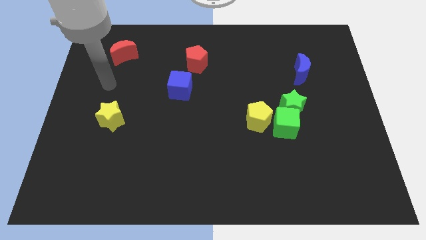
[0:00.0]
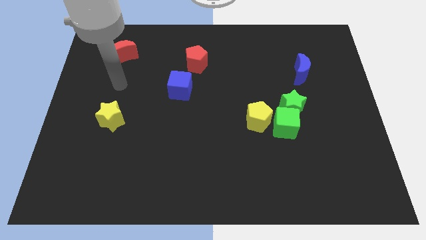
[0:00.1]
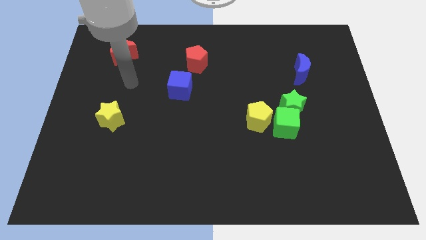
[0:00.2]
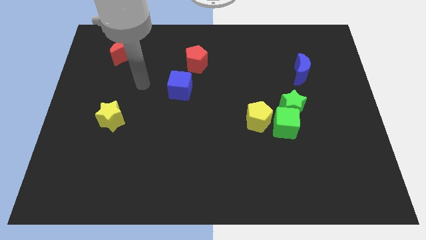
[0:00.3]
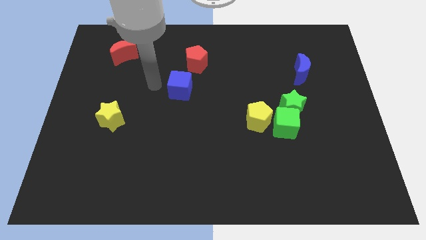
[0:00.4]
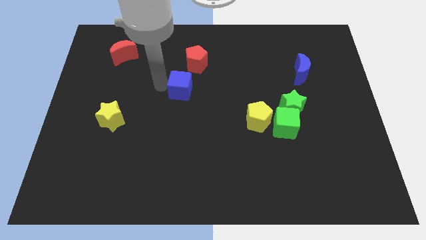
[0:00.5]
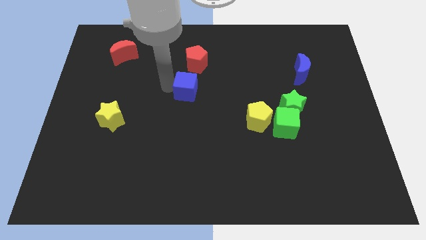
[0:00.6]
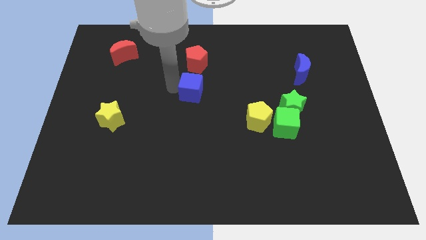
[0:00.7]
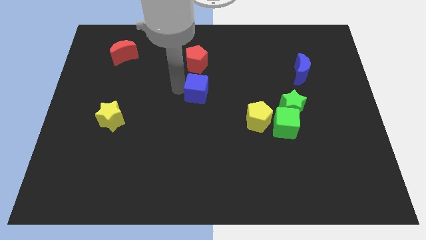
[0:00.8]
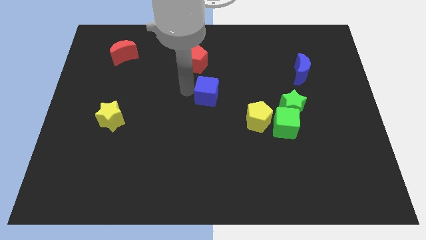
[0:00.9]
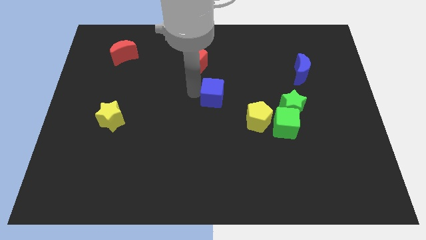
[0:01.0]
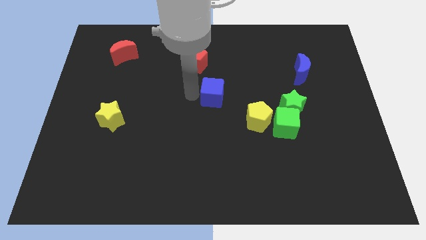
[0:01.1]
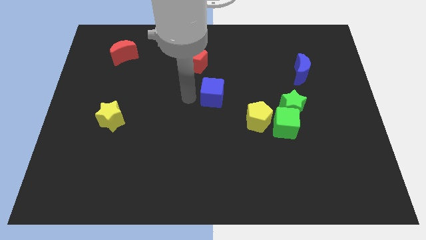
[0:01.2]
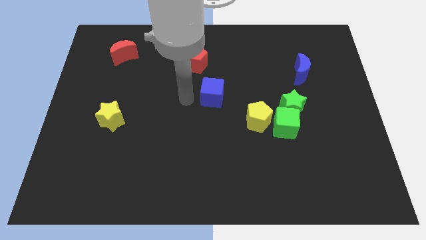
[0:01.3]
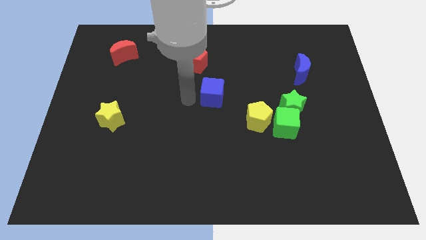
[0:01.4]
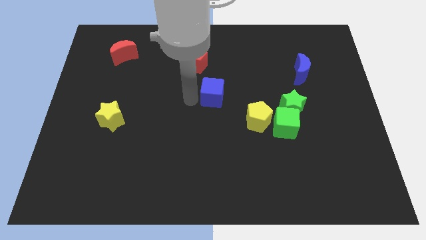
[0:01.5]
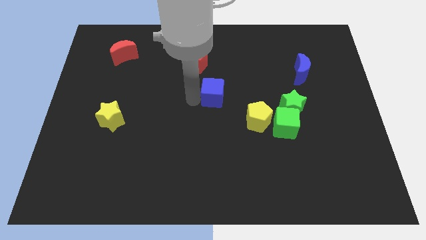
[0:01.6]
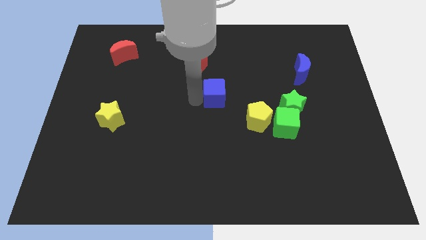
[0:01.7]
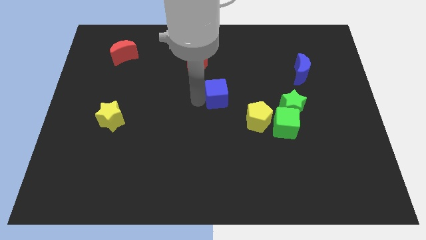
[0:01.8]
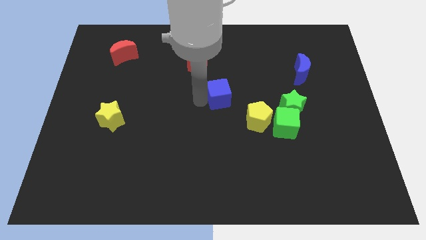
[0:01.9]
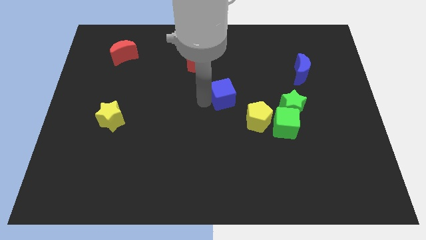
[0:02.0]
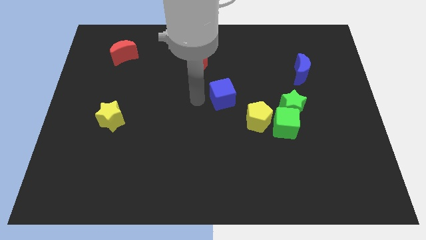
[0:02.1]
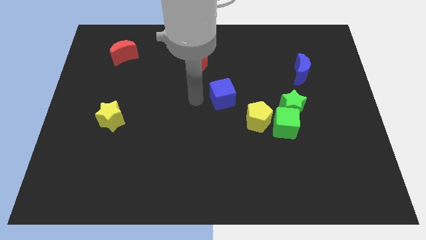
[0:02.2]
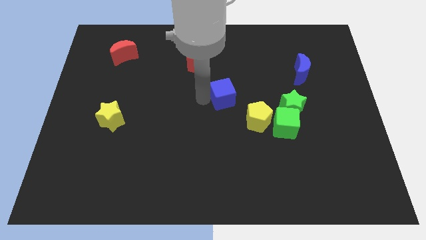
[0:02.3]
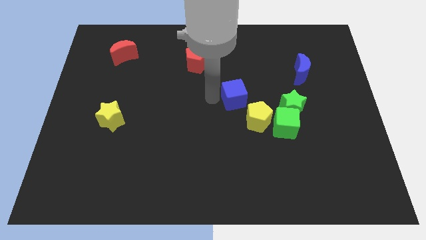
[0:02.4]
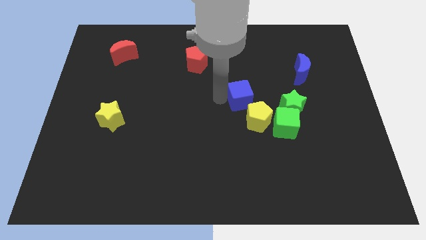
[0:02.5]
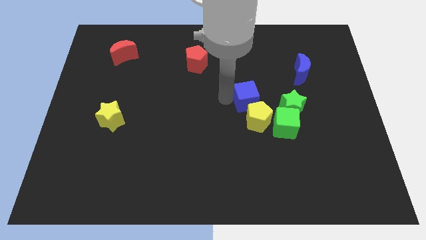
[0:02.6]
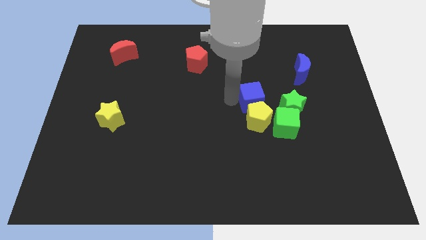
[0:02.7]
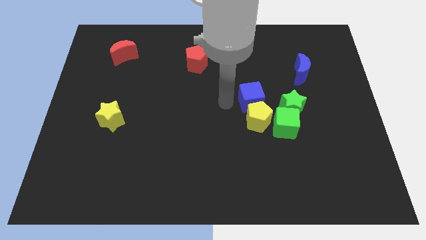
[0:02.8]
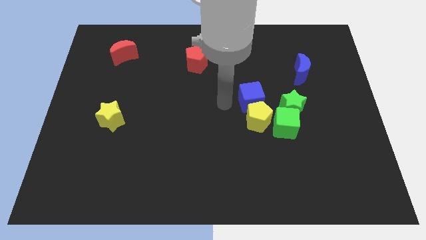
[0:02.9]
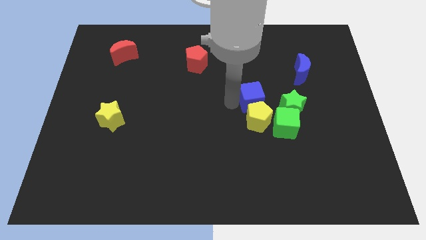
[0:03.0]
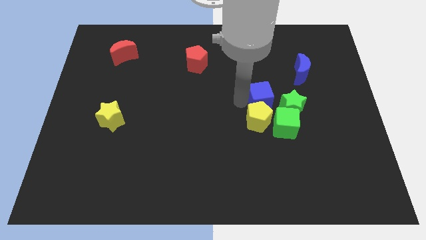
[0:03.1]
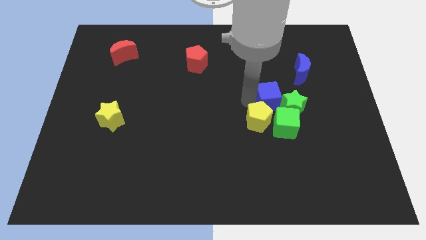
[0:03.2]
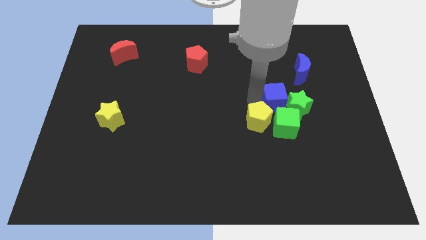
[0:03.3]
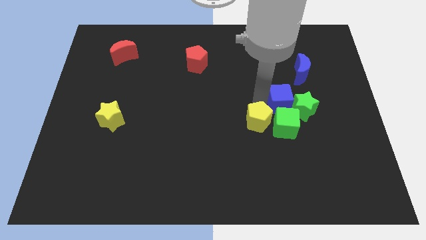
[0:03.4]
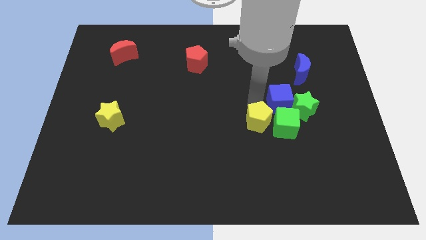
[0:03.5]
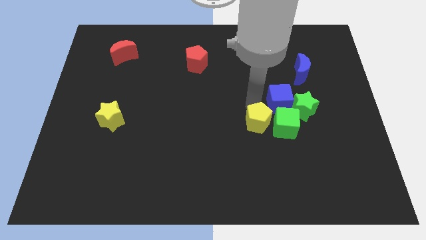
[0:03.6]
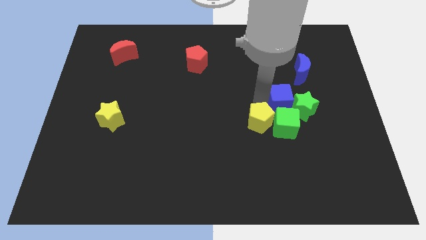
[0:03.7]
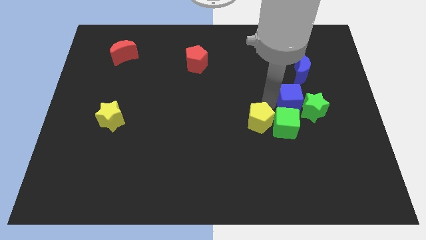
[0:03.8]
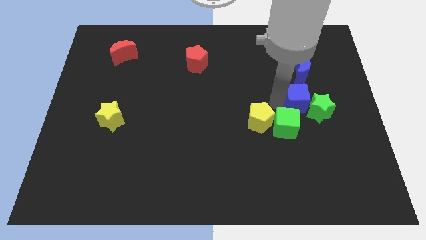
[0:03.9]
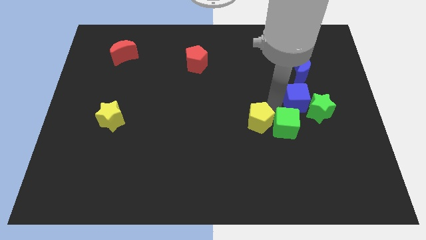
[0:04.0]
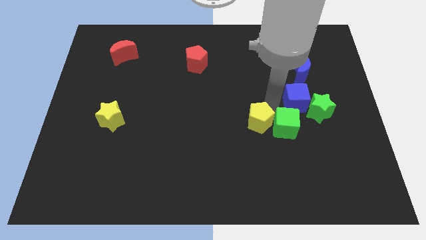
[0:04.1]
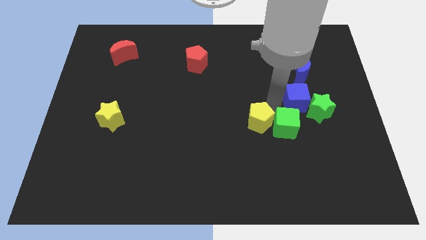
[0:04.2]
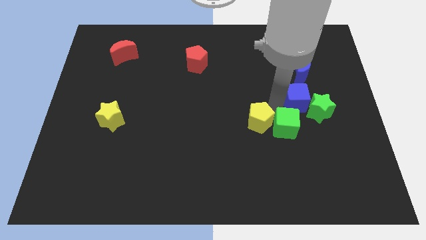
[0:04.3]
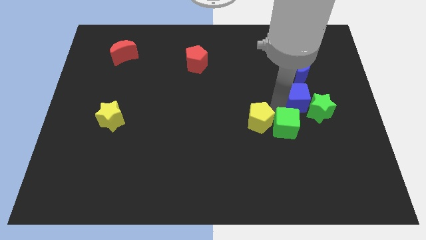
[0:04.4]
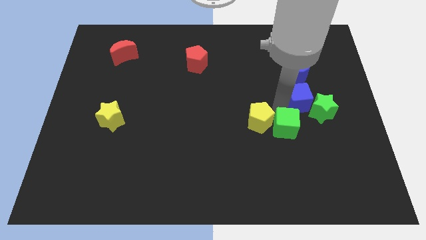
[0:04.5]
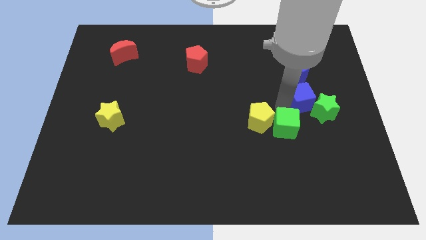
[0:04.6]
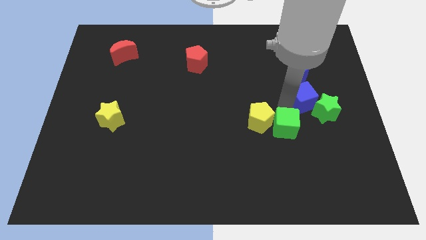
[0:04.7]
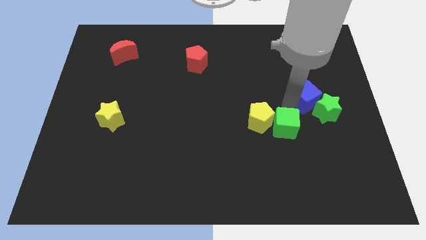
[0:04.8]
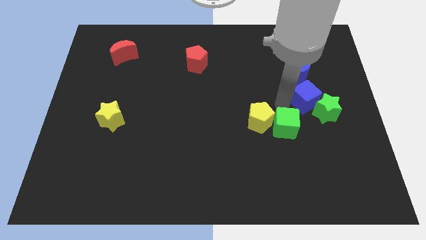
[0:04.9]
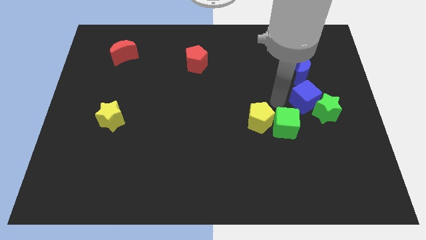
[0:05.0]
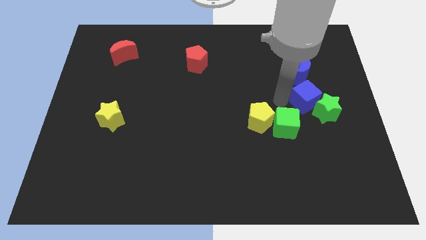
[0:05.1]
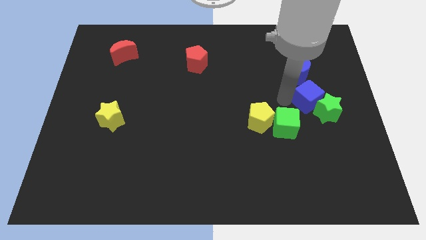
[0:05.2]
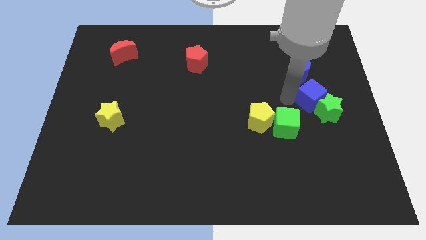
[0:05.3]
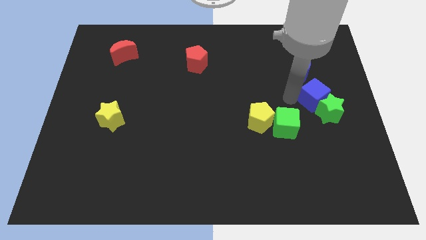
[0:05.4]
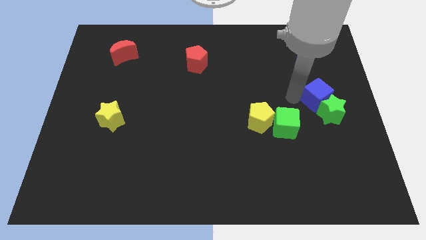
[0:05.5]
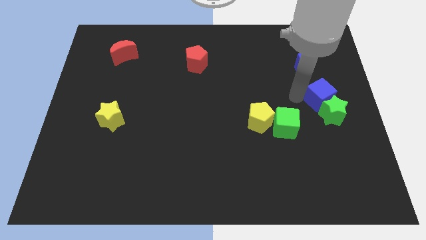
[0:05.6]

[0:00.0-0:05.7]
put the blue cube to the right side of the board

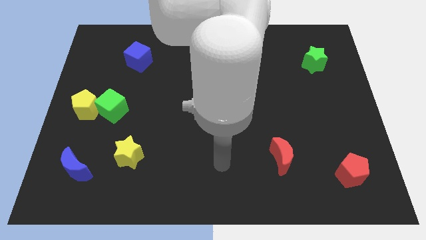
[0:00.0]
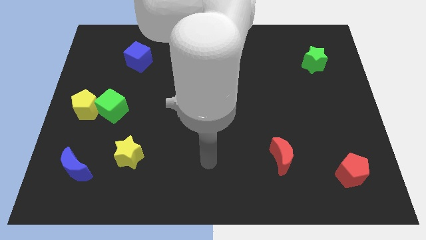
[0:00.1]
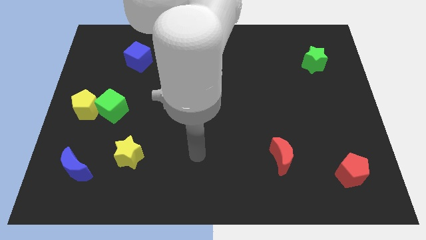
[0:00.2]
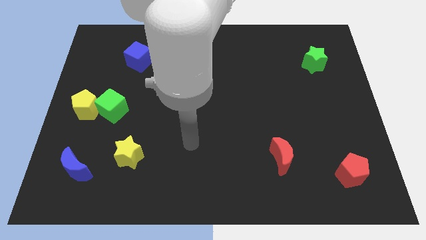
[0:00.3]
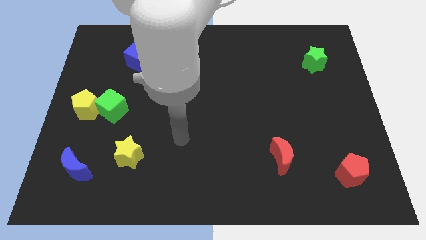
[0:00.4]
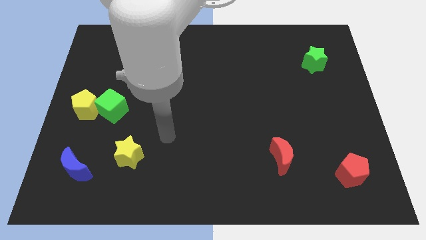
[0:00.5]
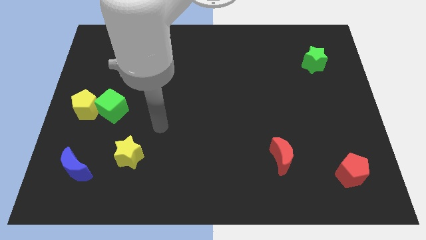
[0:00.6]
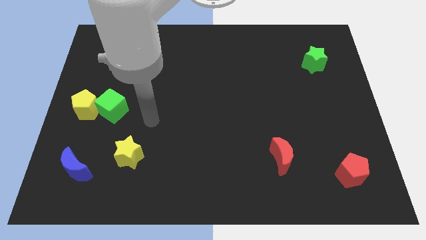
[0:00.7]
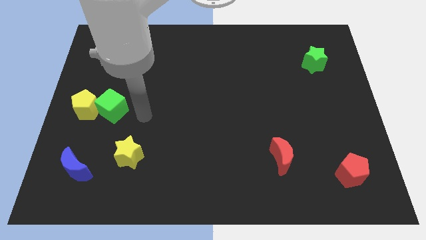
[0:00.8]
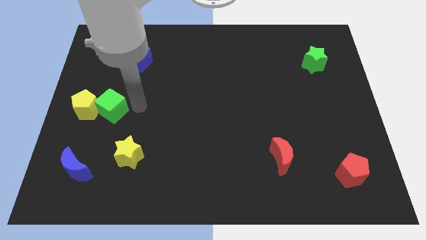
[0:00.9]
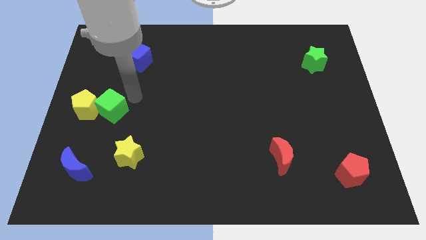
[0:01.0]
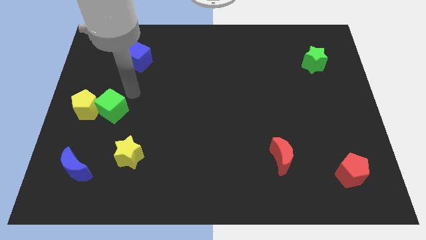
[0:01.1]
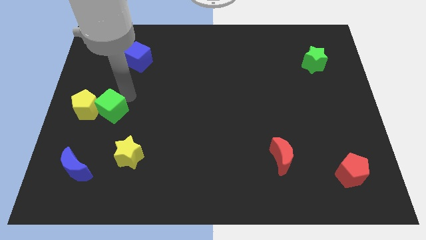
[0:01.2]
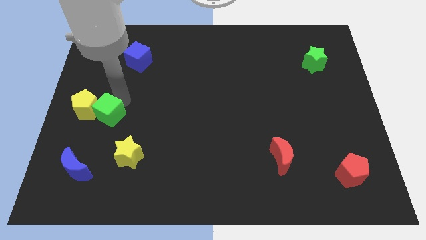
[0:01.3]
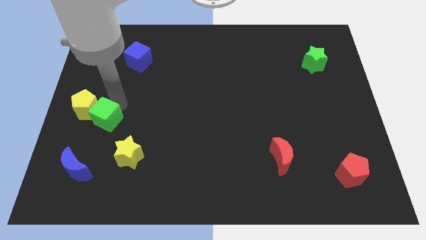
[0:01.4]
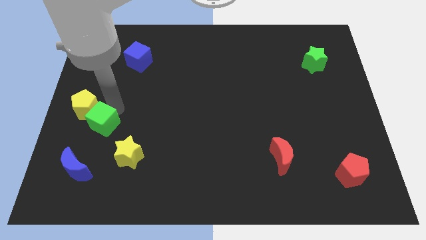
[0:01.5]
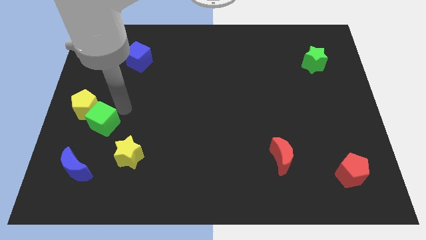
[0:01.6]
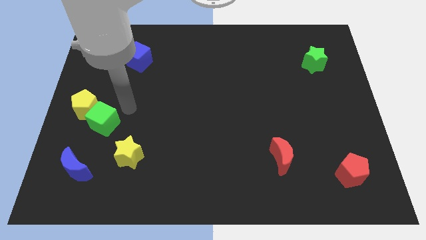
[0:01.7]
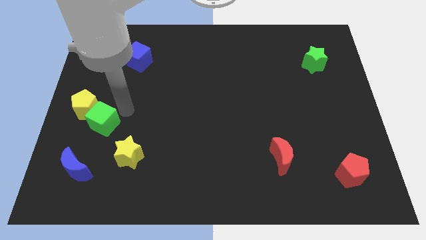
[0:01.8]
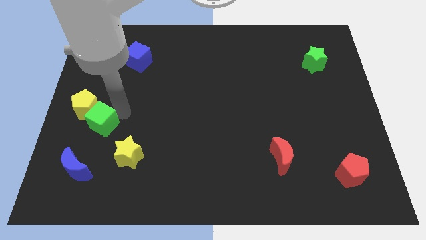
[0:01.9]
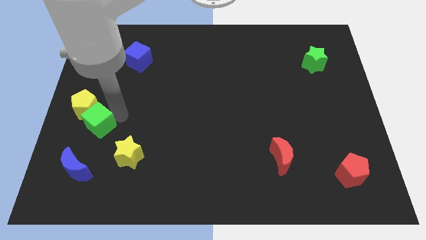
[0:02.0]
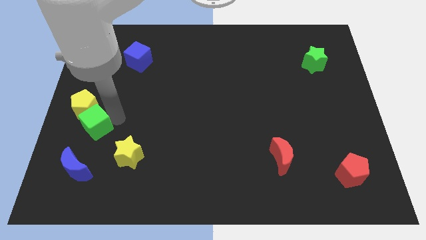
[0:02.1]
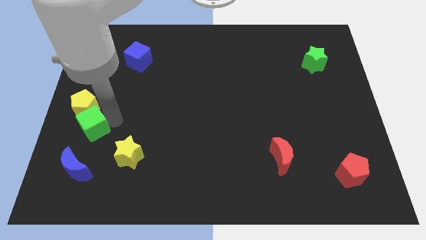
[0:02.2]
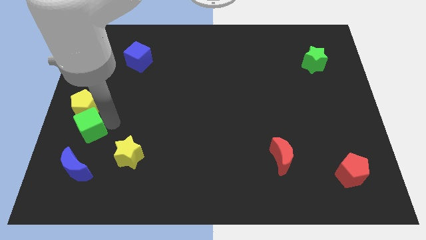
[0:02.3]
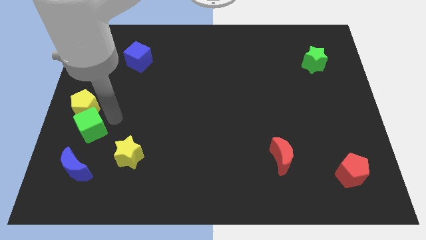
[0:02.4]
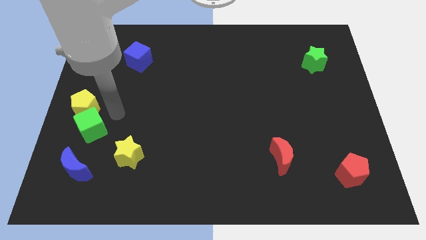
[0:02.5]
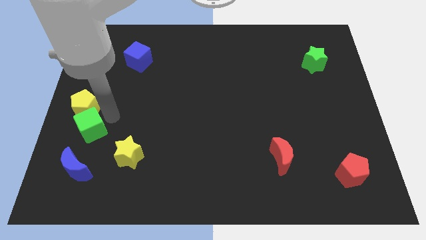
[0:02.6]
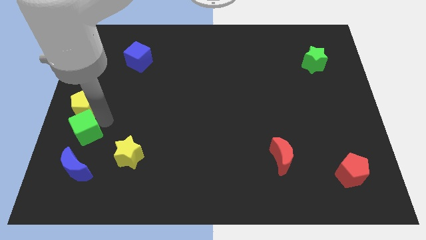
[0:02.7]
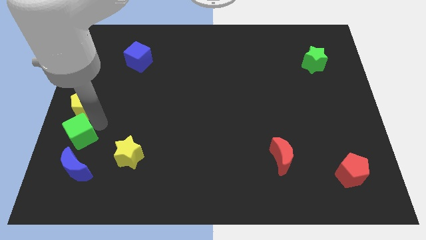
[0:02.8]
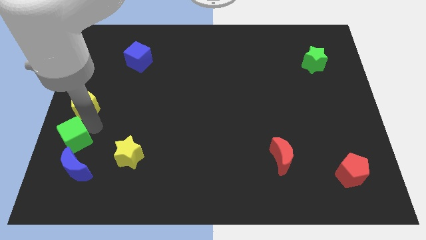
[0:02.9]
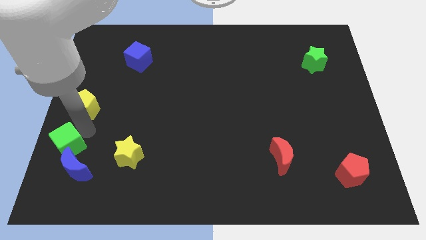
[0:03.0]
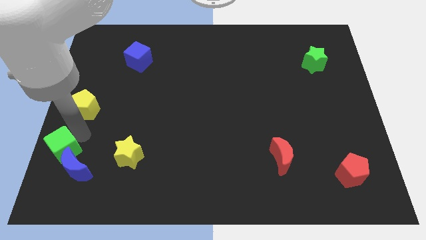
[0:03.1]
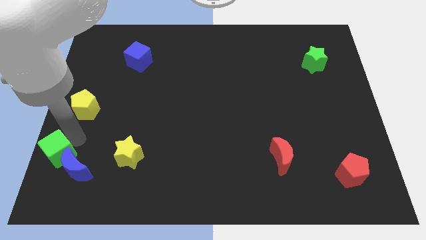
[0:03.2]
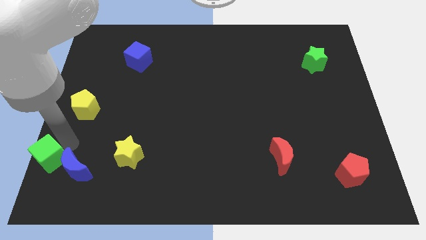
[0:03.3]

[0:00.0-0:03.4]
move the green cube to the bottom left
